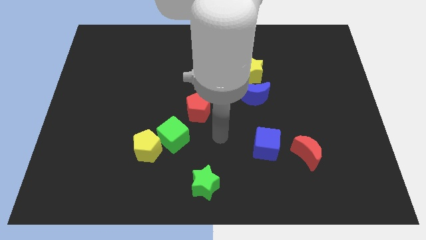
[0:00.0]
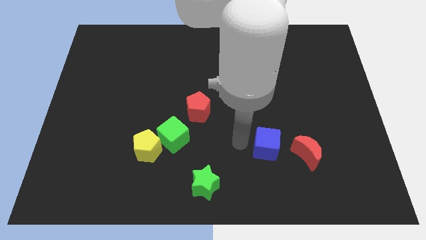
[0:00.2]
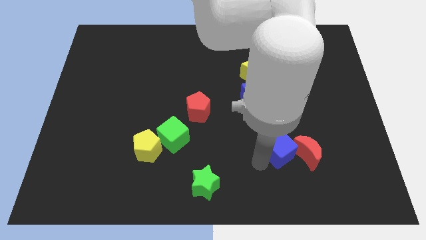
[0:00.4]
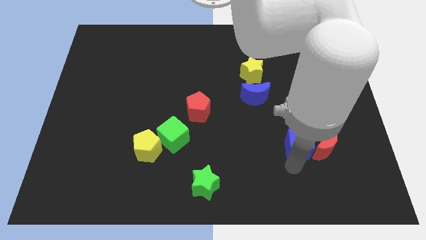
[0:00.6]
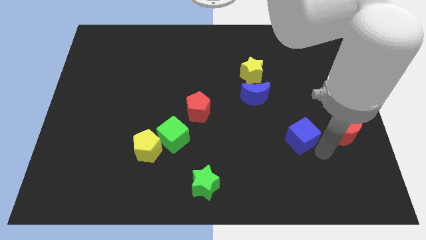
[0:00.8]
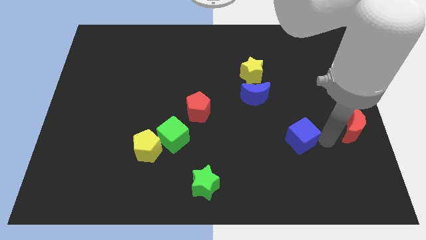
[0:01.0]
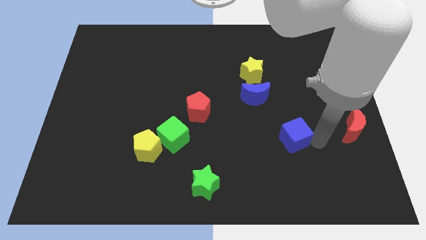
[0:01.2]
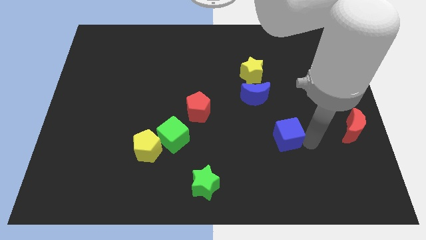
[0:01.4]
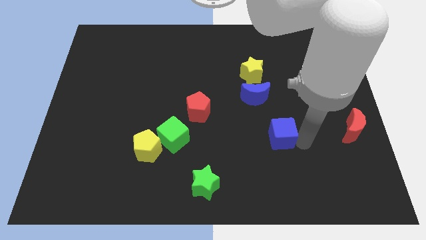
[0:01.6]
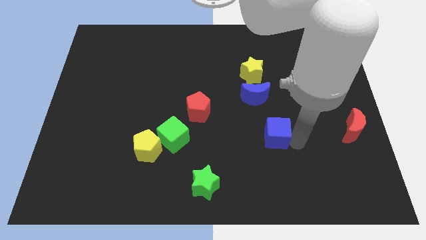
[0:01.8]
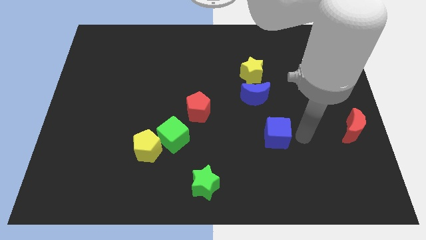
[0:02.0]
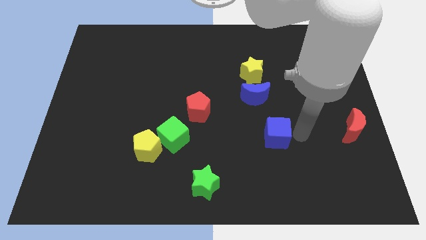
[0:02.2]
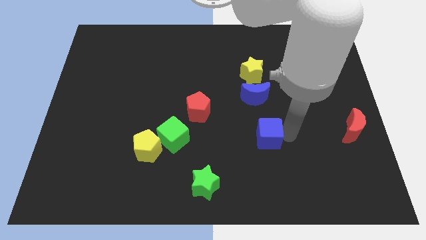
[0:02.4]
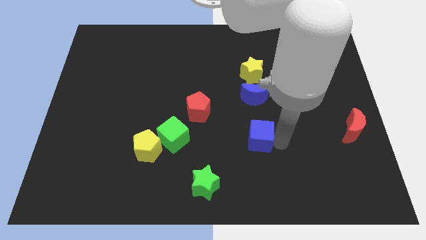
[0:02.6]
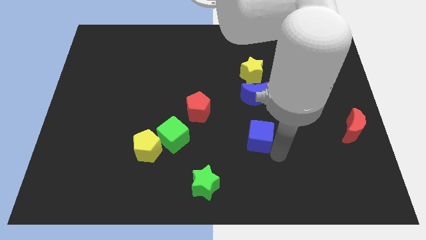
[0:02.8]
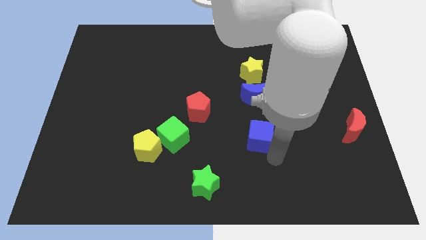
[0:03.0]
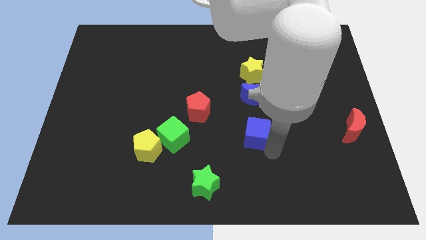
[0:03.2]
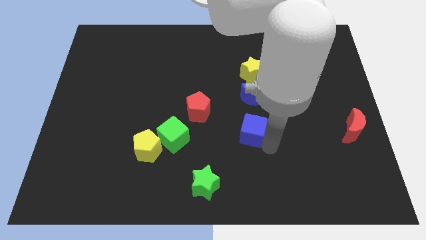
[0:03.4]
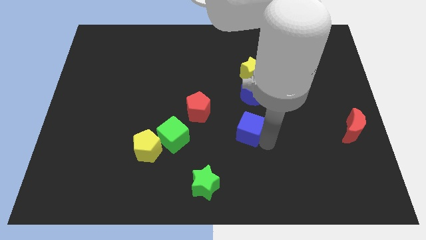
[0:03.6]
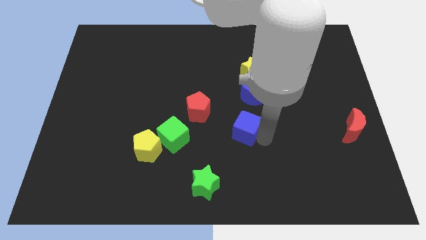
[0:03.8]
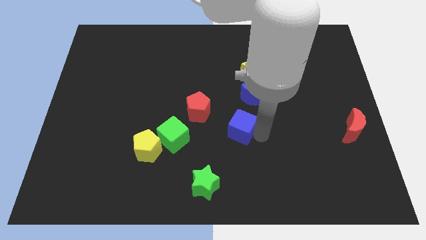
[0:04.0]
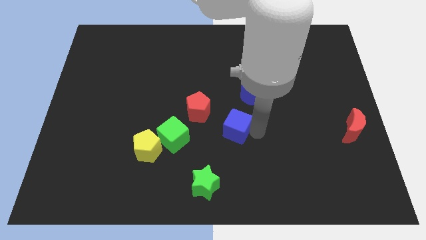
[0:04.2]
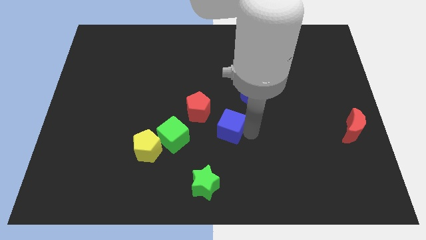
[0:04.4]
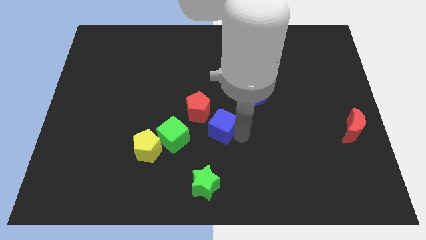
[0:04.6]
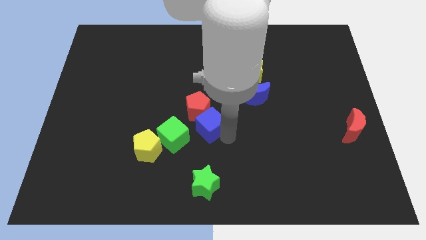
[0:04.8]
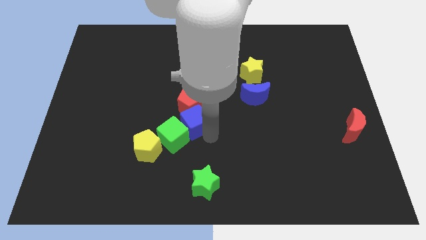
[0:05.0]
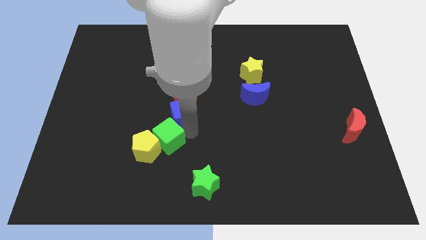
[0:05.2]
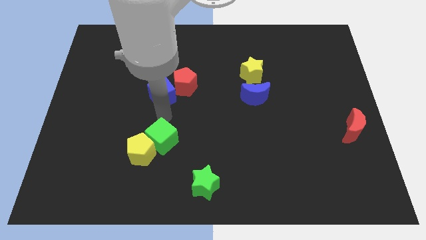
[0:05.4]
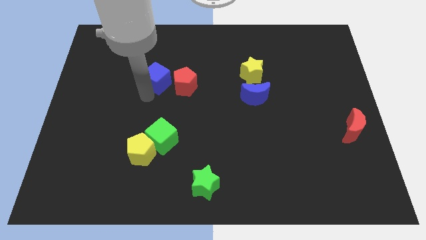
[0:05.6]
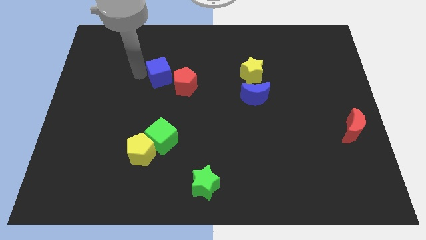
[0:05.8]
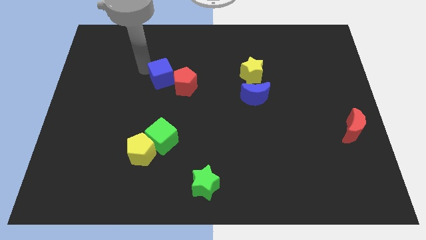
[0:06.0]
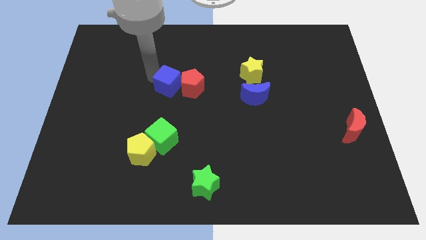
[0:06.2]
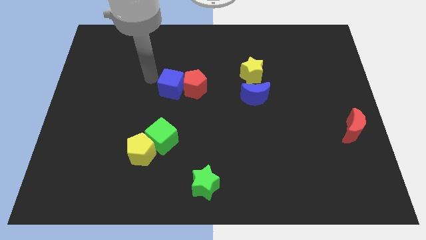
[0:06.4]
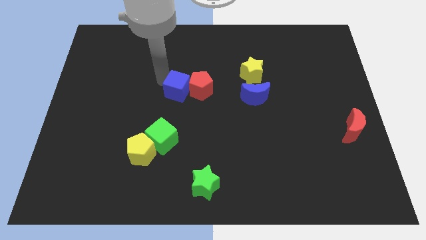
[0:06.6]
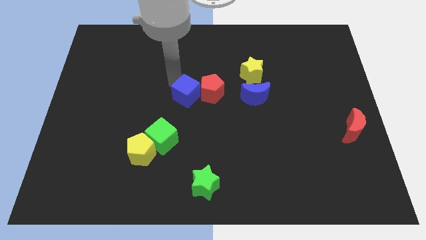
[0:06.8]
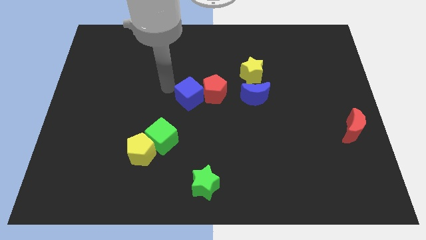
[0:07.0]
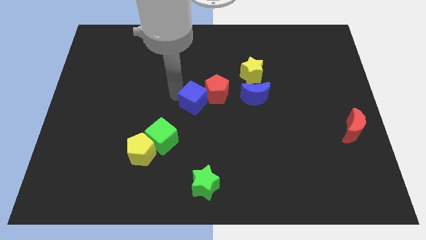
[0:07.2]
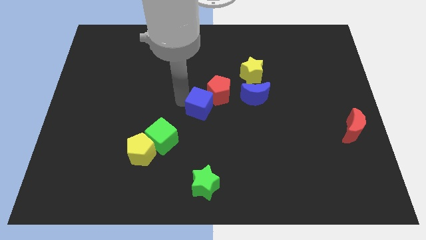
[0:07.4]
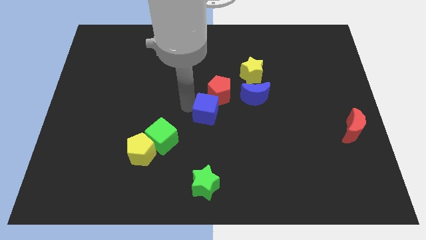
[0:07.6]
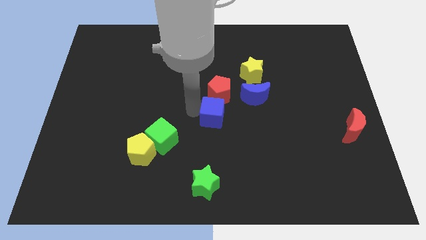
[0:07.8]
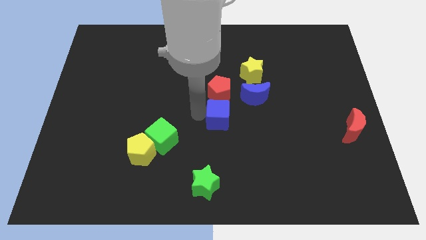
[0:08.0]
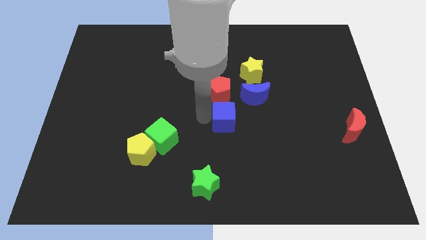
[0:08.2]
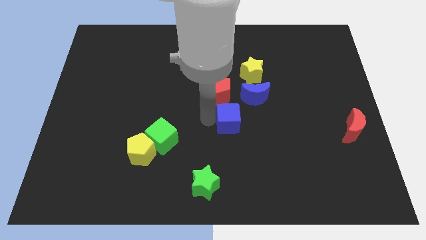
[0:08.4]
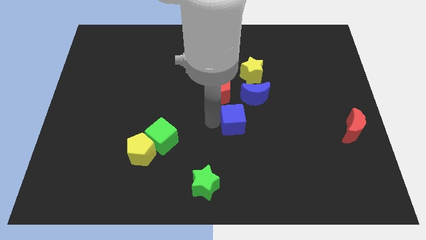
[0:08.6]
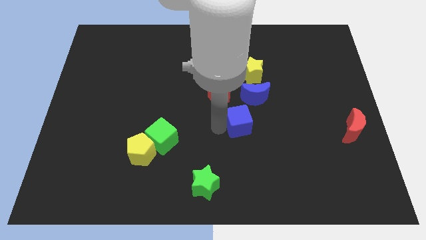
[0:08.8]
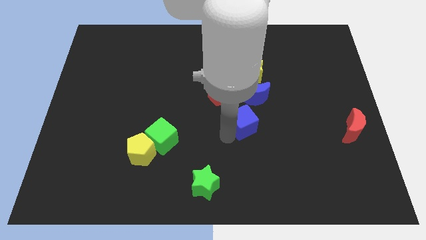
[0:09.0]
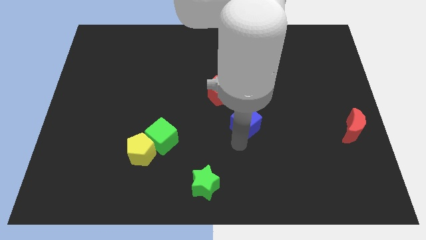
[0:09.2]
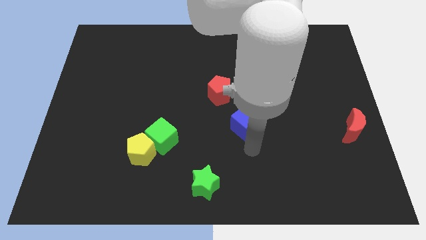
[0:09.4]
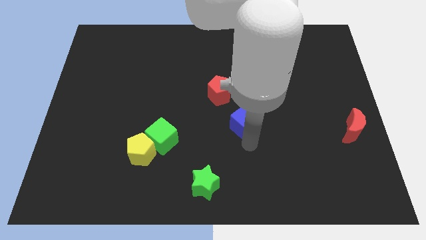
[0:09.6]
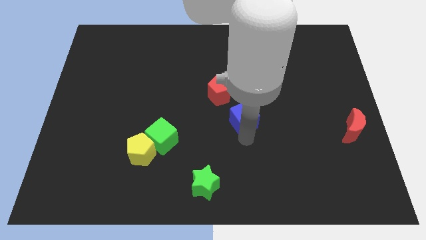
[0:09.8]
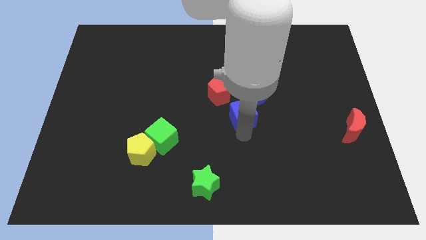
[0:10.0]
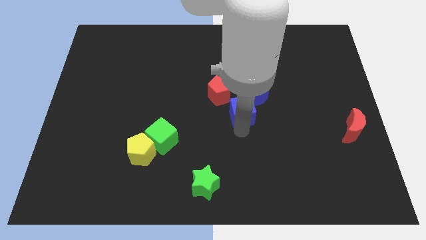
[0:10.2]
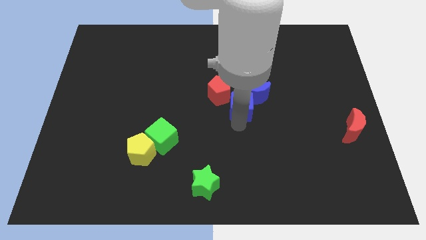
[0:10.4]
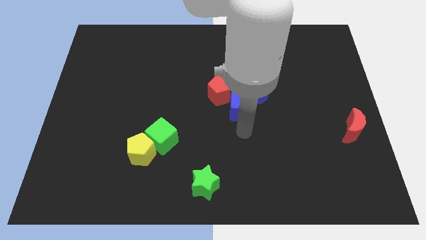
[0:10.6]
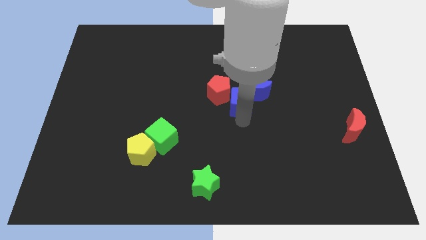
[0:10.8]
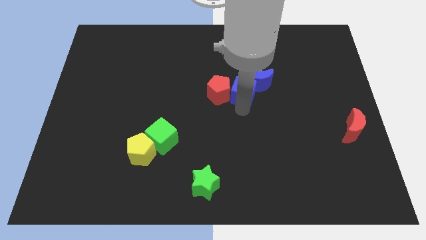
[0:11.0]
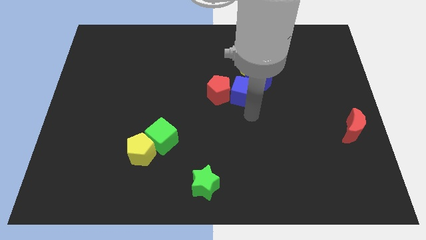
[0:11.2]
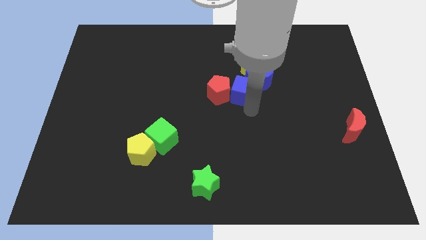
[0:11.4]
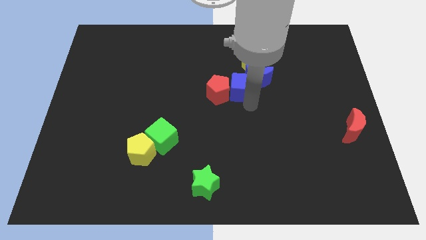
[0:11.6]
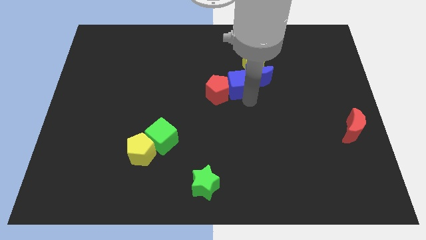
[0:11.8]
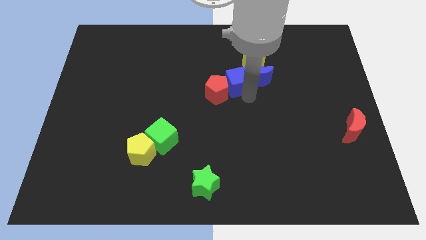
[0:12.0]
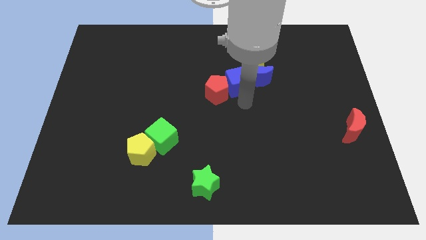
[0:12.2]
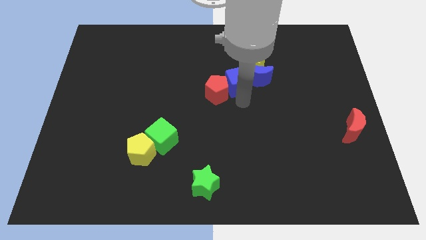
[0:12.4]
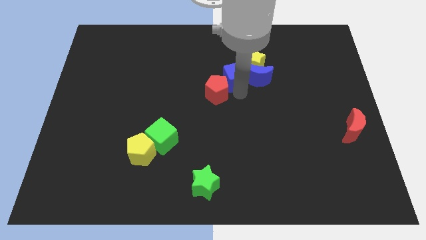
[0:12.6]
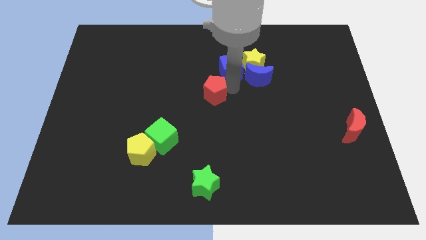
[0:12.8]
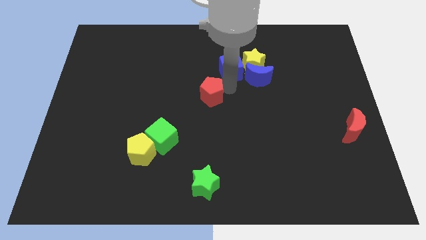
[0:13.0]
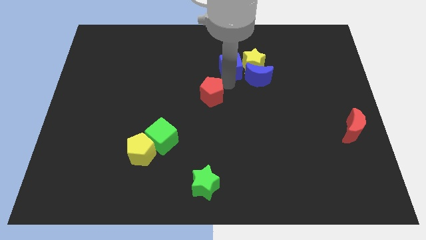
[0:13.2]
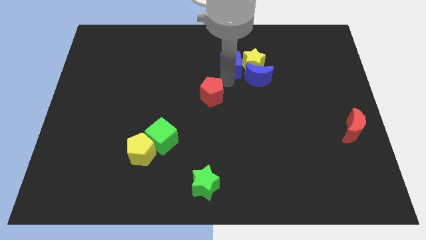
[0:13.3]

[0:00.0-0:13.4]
push the blue cube diagonally up and to the left of the yellow star
